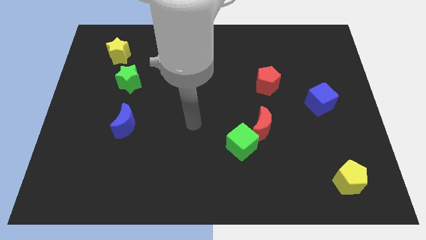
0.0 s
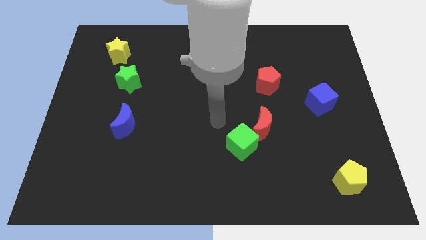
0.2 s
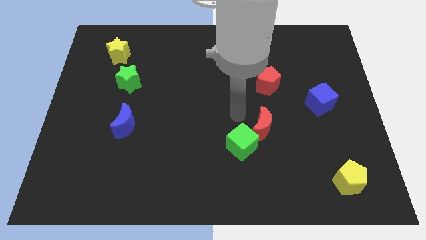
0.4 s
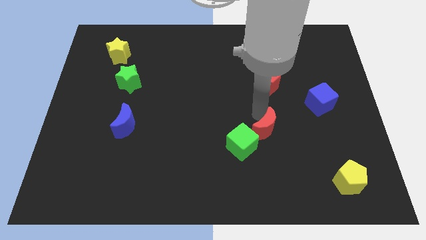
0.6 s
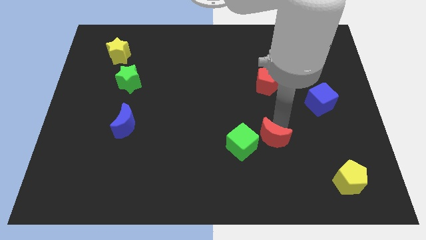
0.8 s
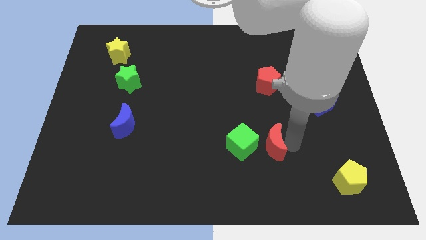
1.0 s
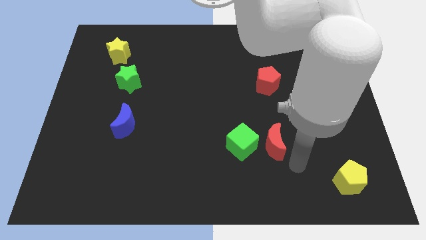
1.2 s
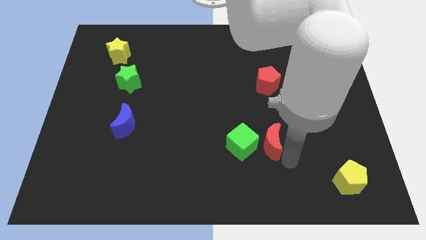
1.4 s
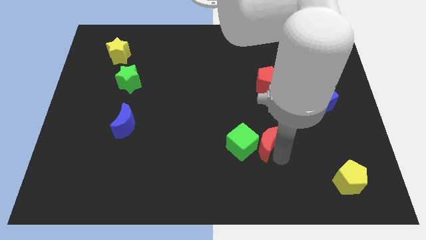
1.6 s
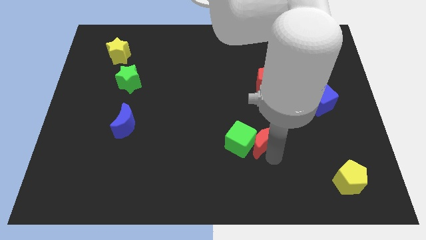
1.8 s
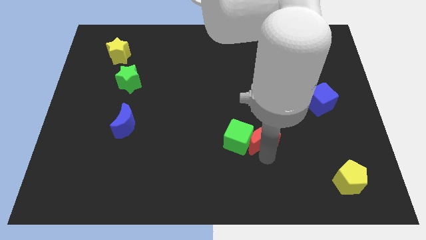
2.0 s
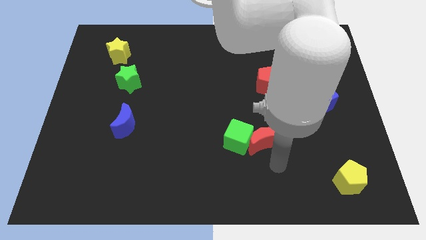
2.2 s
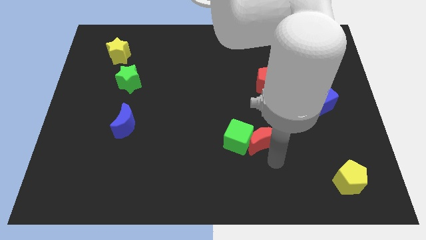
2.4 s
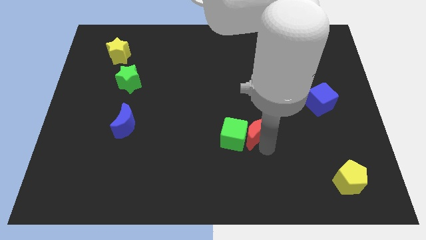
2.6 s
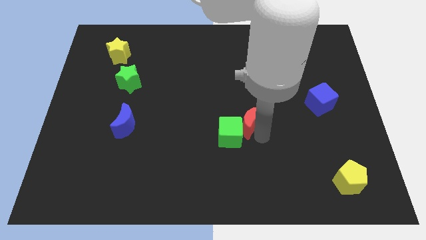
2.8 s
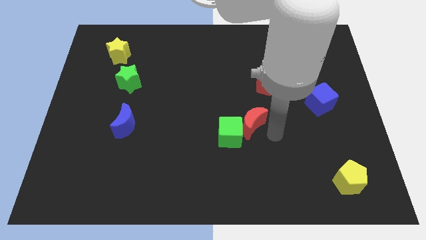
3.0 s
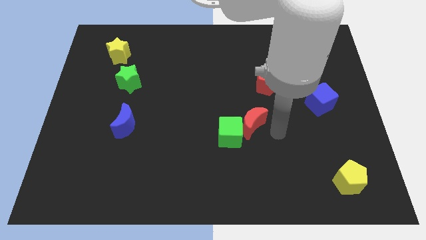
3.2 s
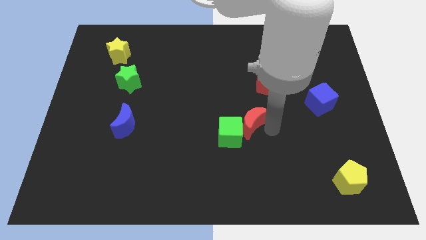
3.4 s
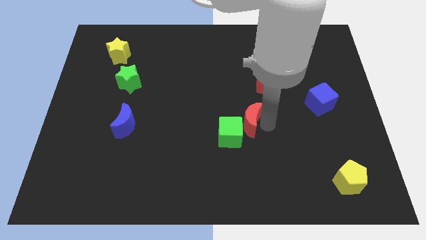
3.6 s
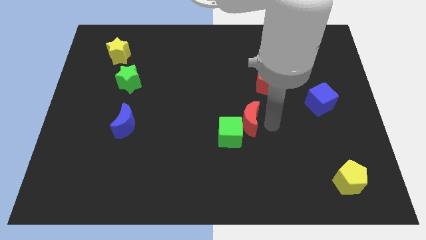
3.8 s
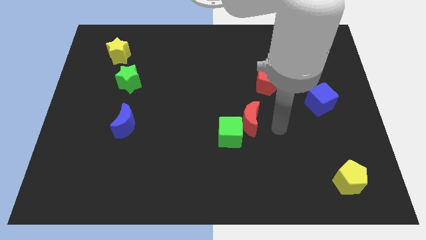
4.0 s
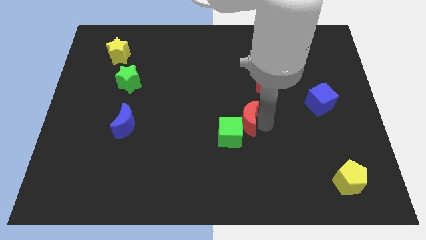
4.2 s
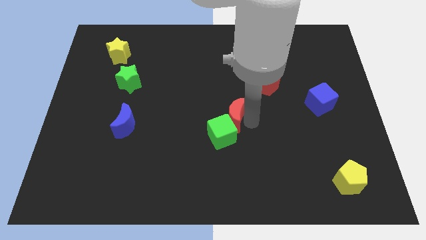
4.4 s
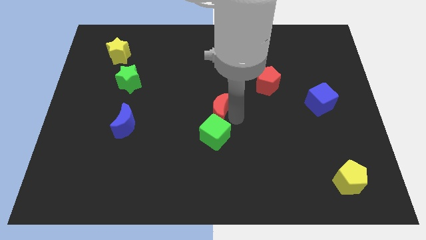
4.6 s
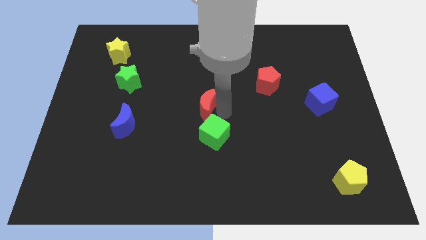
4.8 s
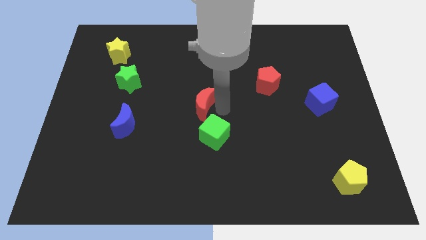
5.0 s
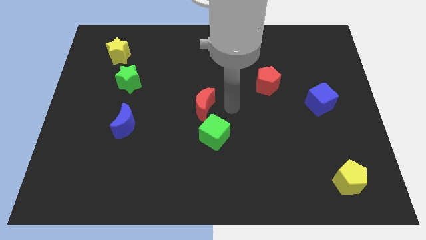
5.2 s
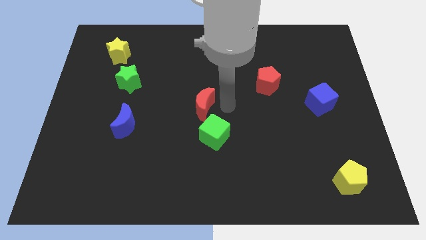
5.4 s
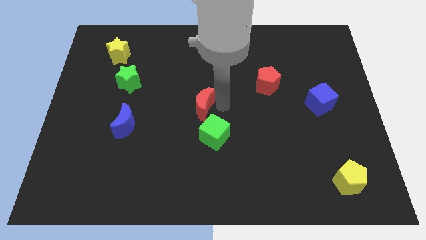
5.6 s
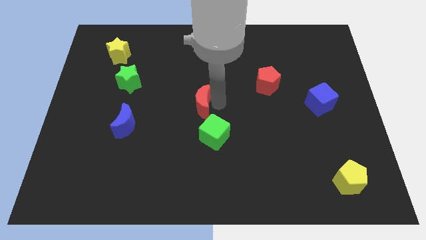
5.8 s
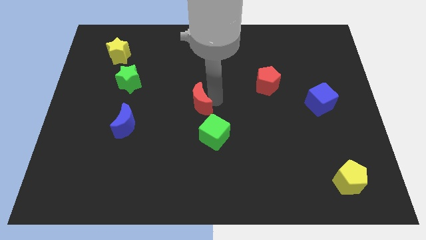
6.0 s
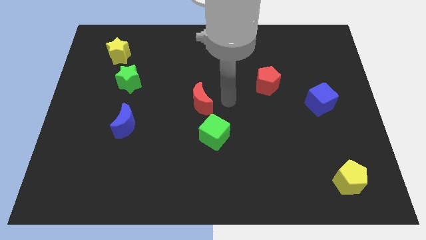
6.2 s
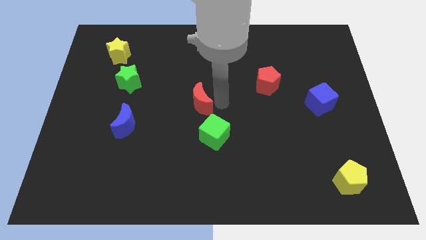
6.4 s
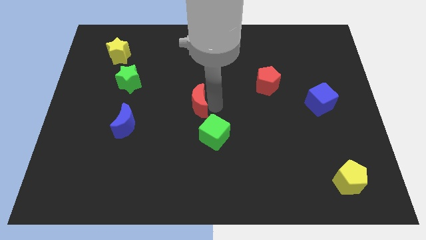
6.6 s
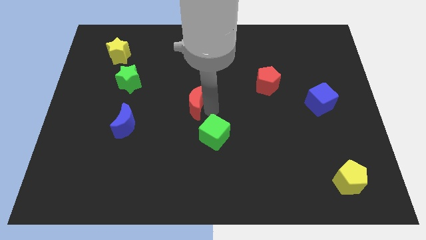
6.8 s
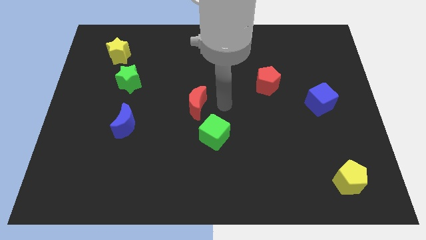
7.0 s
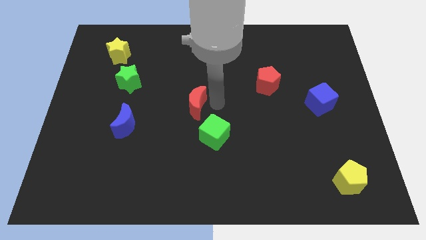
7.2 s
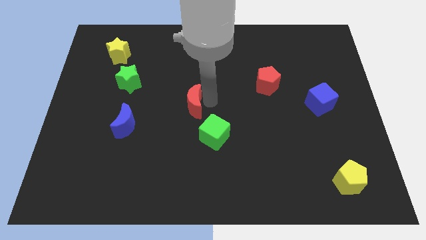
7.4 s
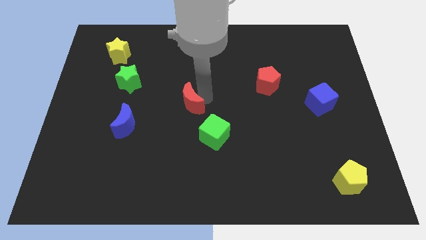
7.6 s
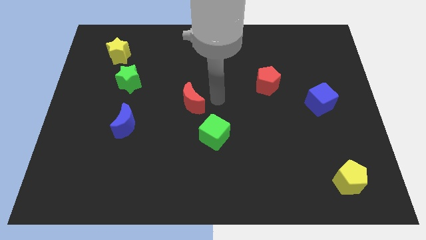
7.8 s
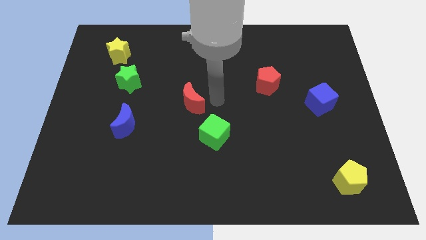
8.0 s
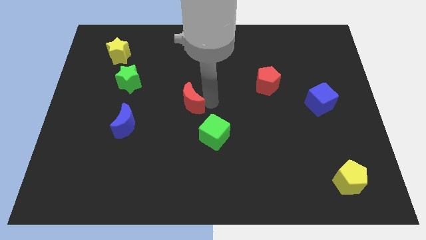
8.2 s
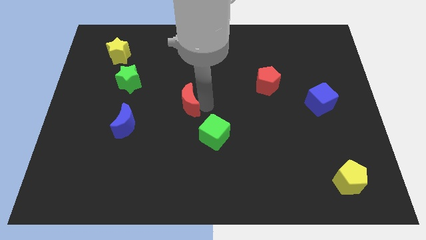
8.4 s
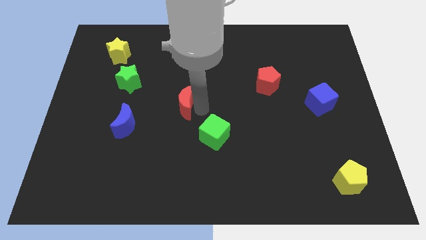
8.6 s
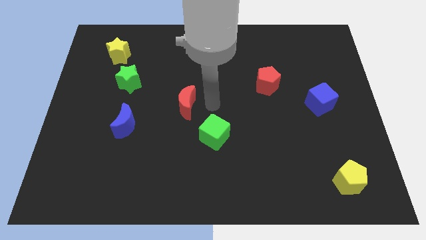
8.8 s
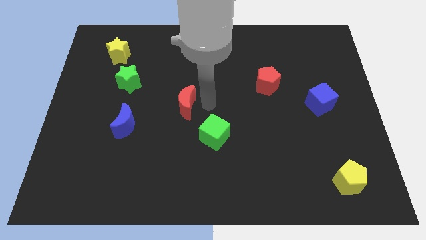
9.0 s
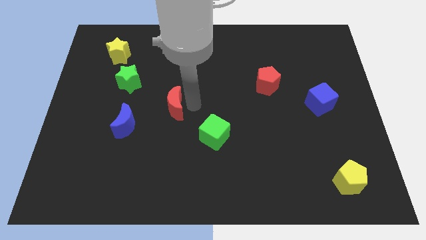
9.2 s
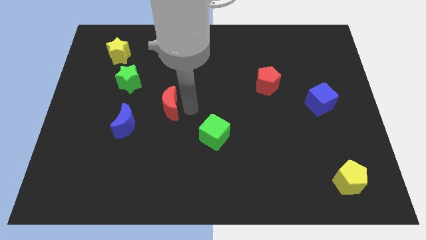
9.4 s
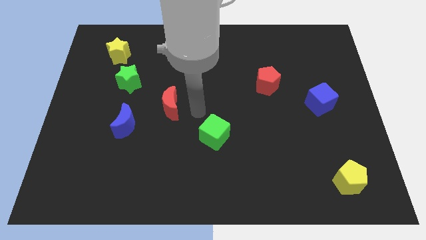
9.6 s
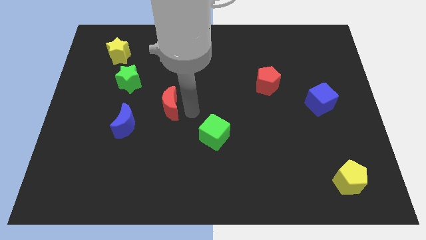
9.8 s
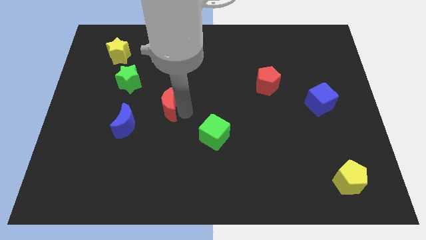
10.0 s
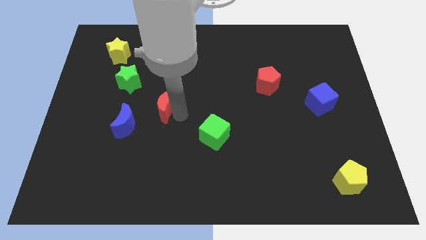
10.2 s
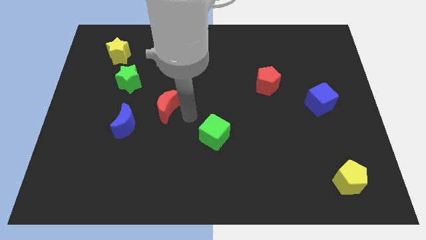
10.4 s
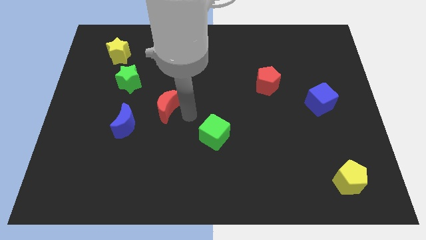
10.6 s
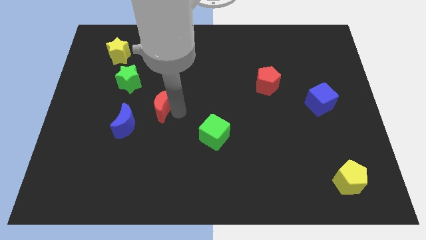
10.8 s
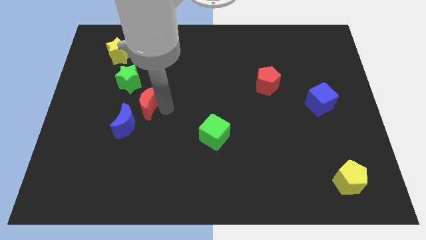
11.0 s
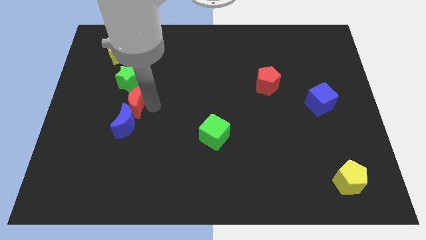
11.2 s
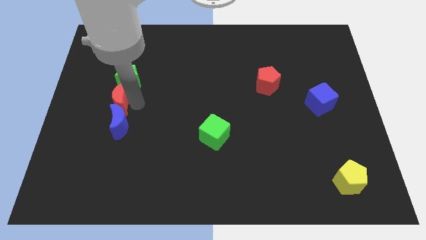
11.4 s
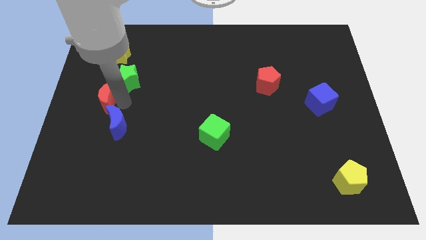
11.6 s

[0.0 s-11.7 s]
push the red moon to the left side of the board

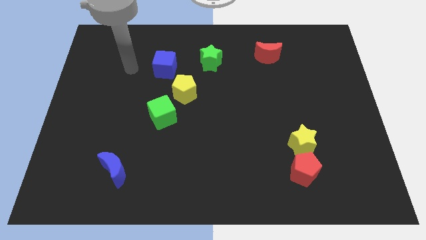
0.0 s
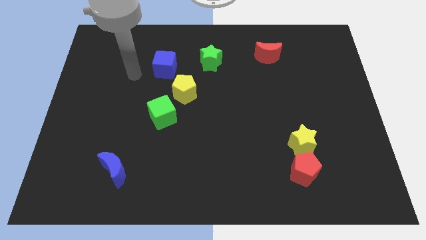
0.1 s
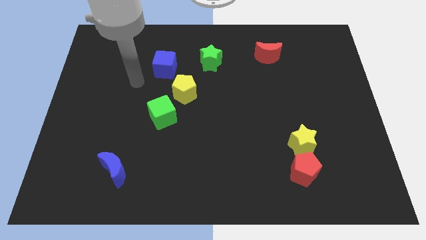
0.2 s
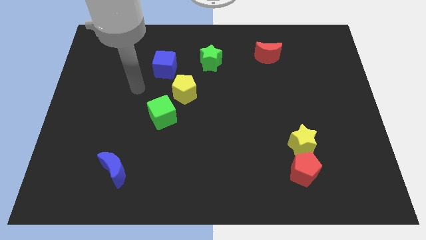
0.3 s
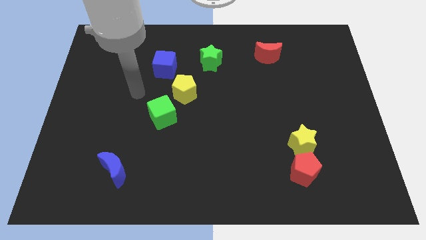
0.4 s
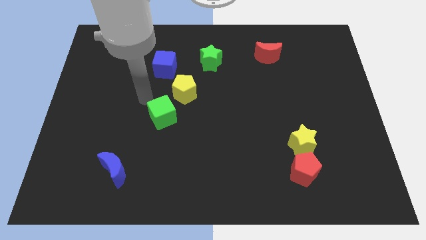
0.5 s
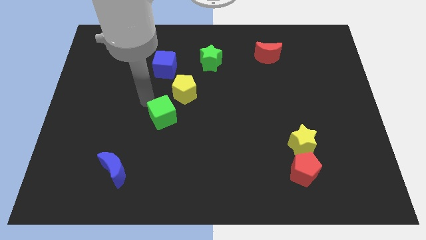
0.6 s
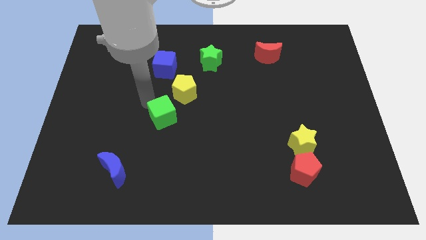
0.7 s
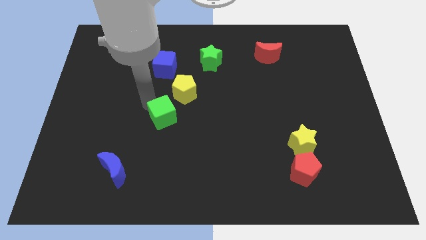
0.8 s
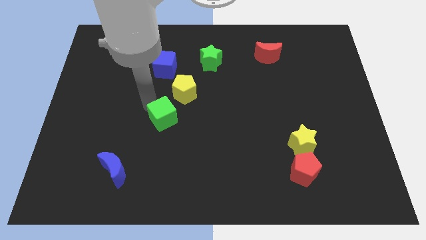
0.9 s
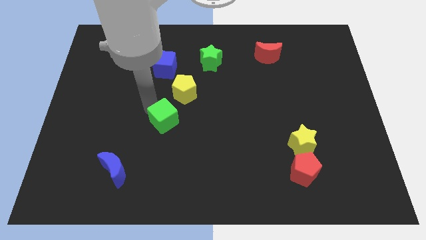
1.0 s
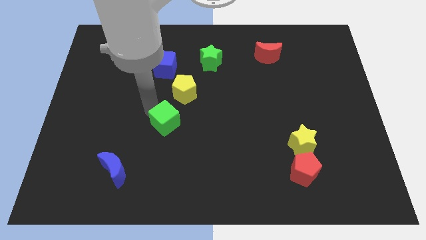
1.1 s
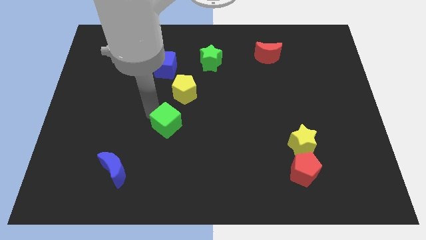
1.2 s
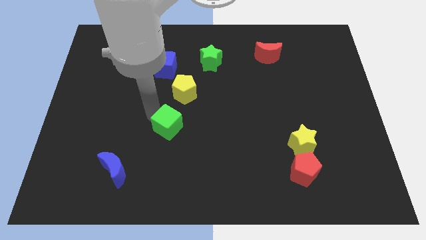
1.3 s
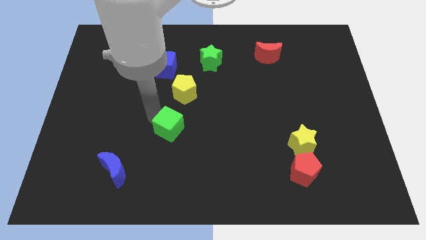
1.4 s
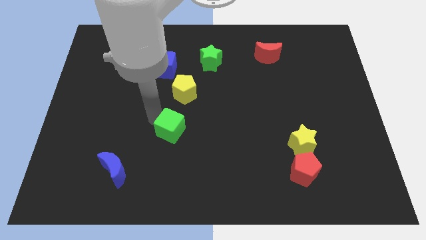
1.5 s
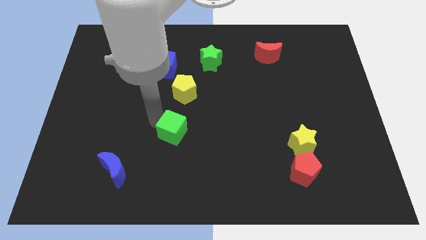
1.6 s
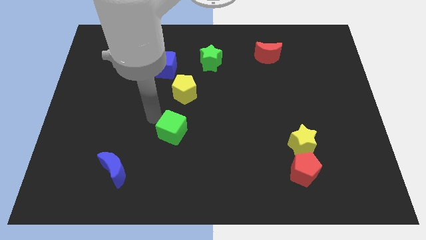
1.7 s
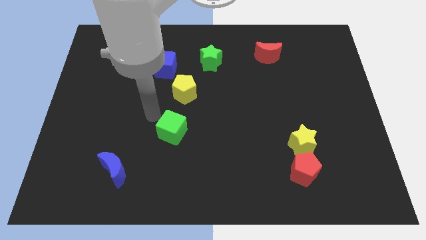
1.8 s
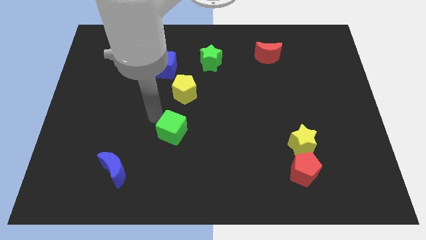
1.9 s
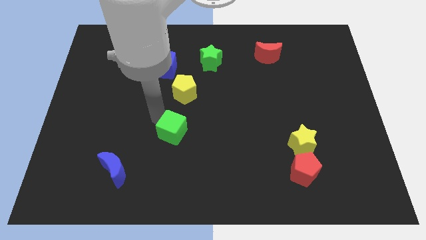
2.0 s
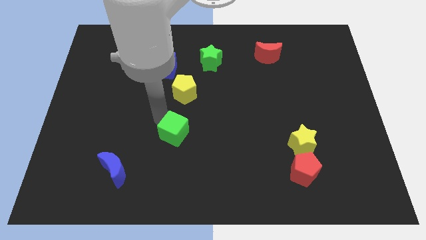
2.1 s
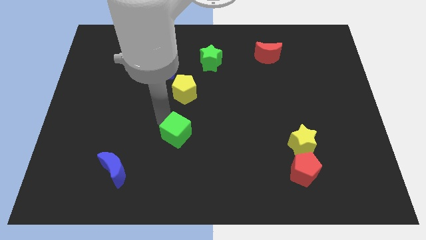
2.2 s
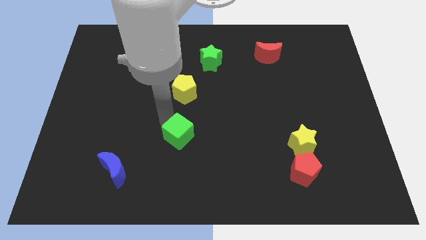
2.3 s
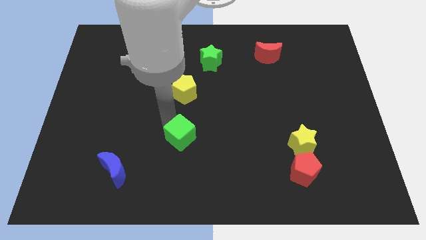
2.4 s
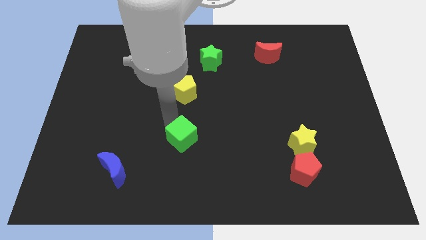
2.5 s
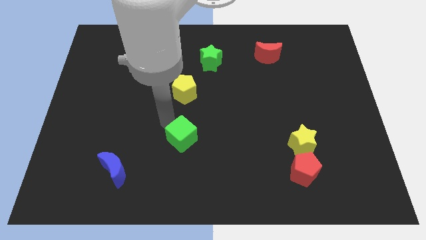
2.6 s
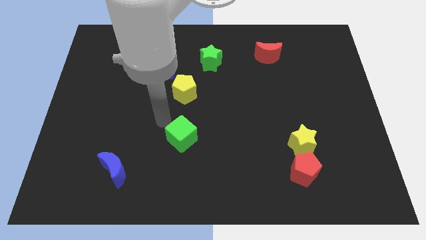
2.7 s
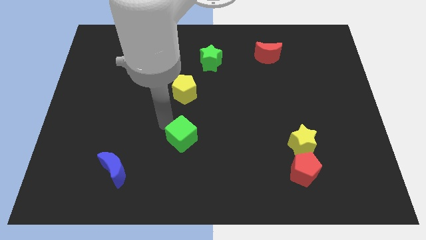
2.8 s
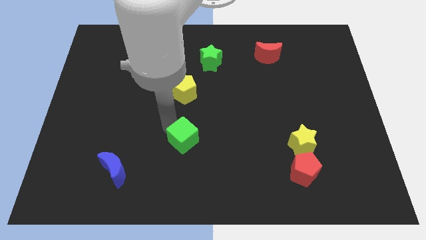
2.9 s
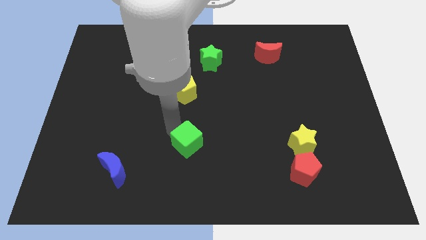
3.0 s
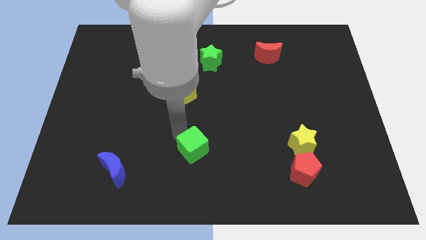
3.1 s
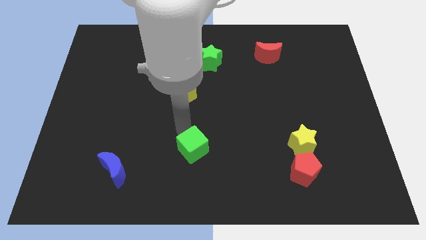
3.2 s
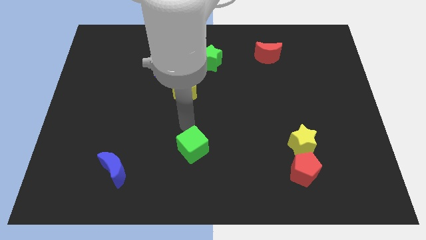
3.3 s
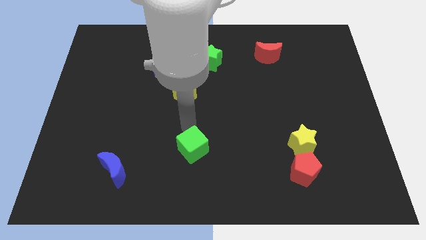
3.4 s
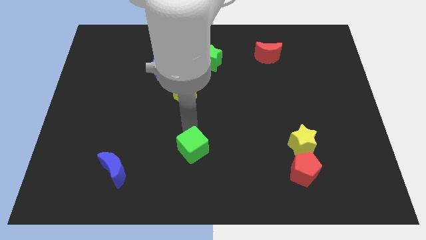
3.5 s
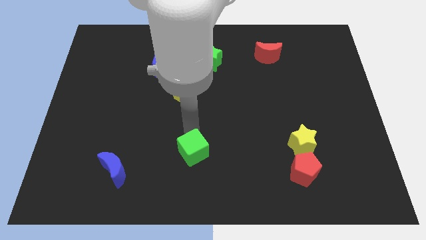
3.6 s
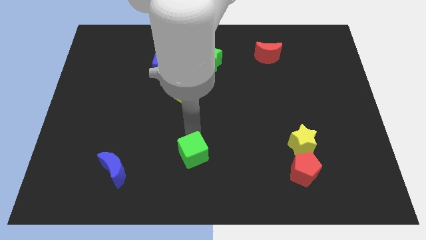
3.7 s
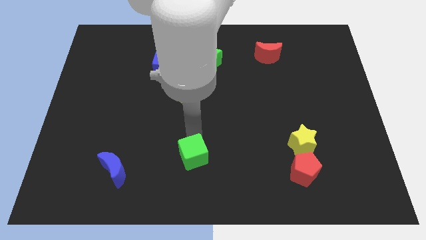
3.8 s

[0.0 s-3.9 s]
slide the green cube to the bottom
